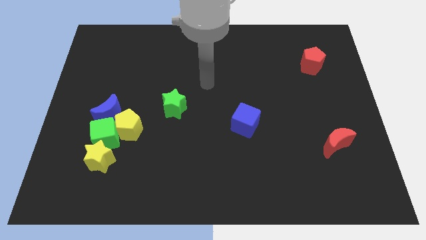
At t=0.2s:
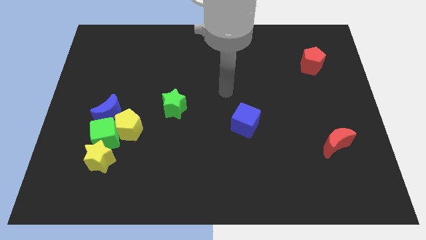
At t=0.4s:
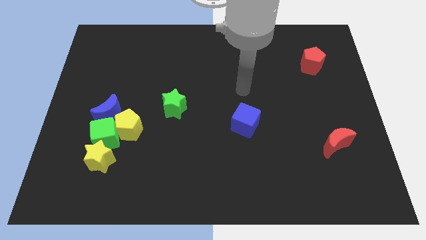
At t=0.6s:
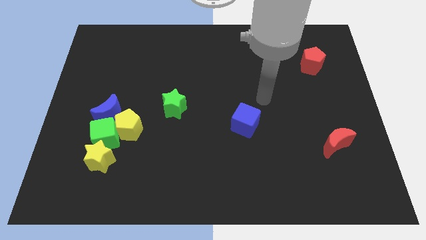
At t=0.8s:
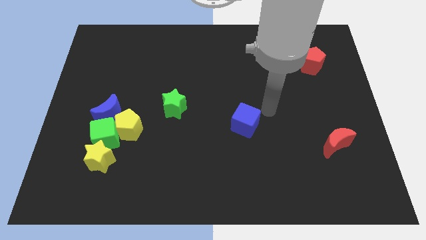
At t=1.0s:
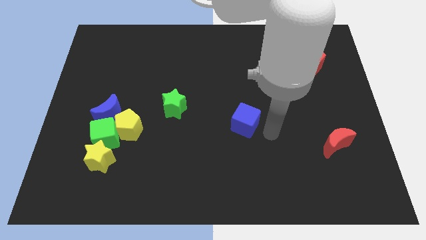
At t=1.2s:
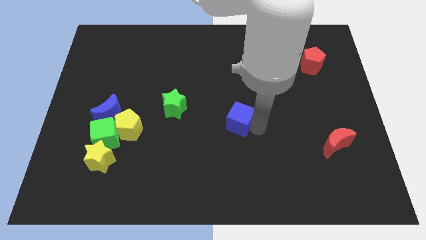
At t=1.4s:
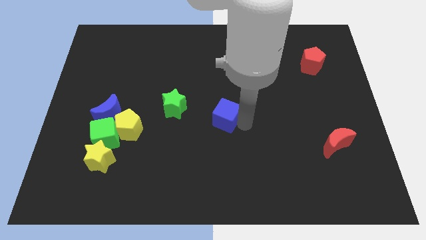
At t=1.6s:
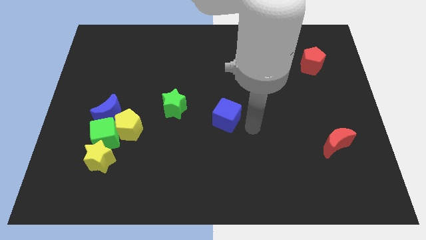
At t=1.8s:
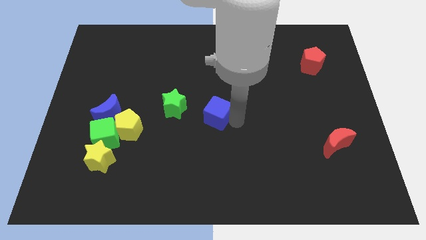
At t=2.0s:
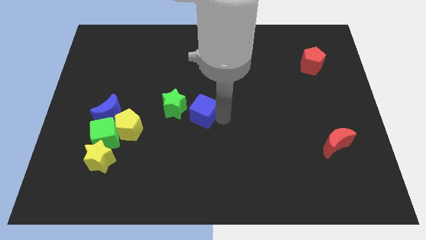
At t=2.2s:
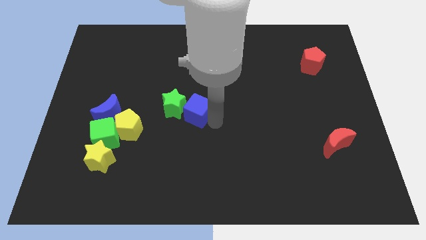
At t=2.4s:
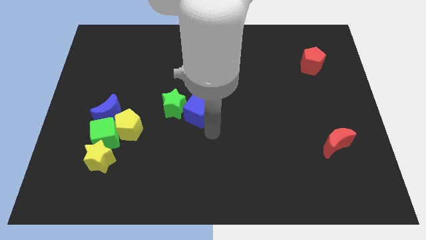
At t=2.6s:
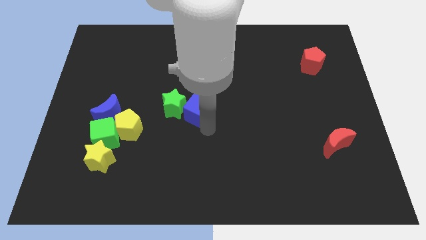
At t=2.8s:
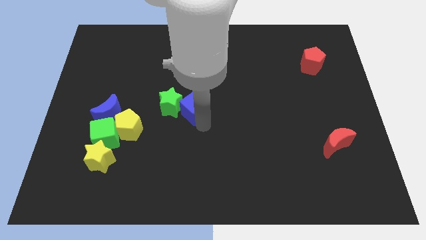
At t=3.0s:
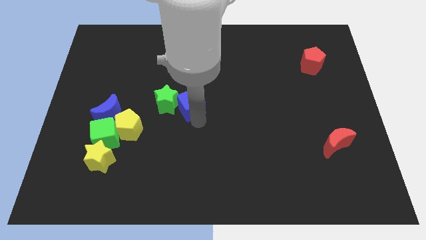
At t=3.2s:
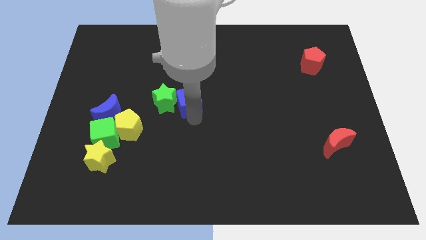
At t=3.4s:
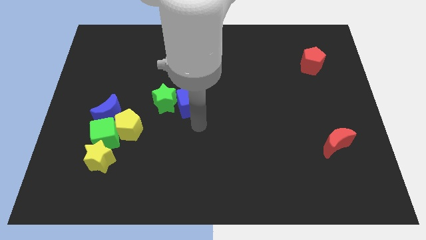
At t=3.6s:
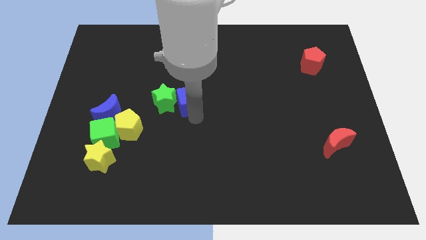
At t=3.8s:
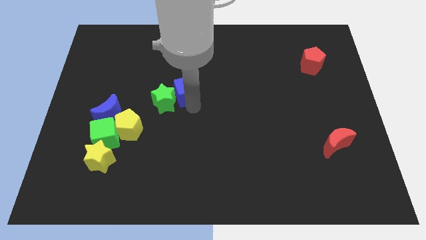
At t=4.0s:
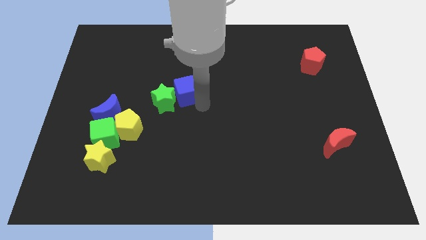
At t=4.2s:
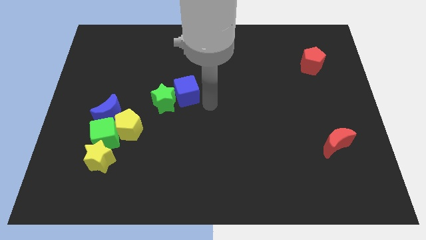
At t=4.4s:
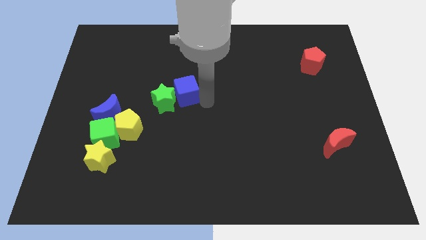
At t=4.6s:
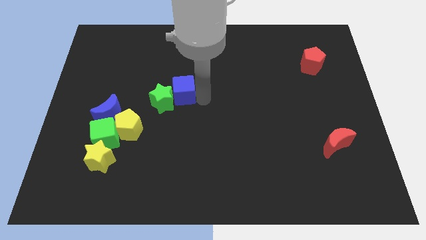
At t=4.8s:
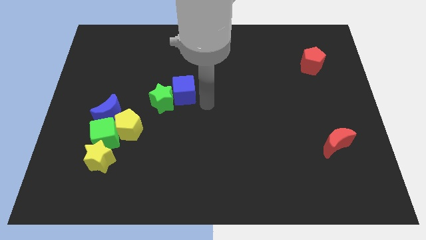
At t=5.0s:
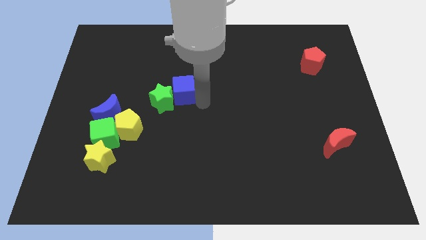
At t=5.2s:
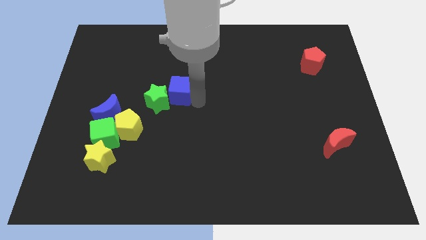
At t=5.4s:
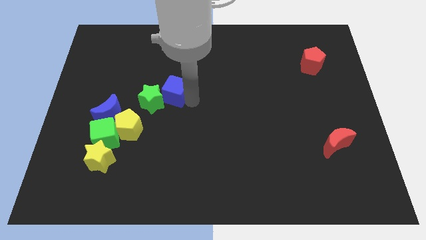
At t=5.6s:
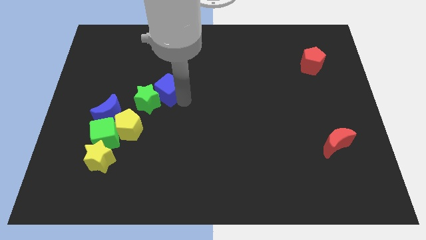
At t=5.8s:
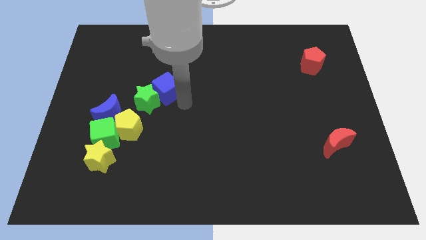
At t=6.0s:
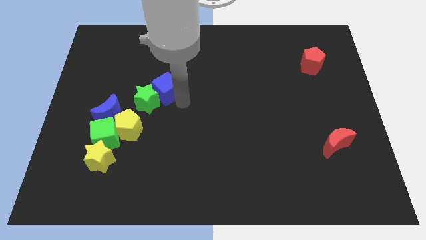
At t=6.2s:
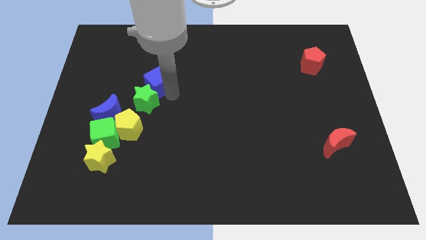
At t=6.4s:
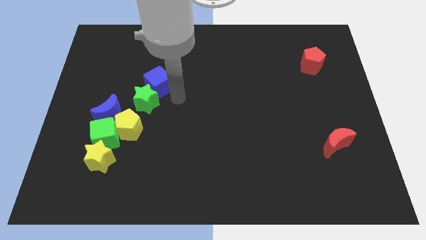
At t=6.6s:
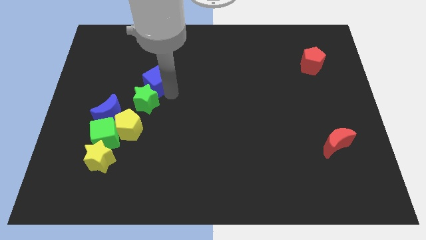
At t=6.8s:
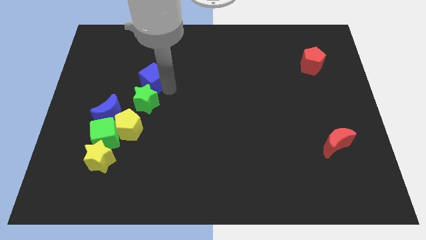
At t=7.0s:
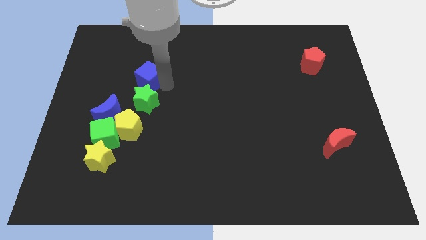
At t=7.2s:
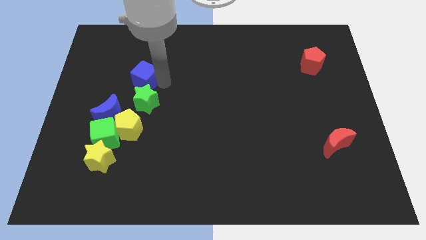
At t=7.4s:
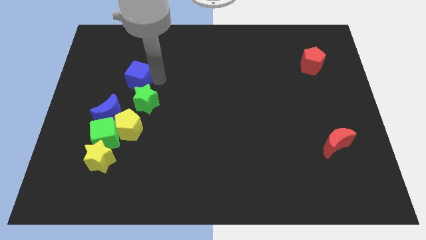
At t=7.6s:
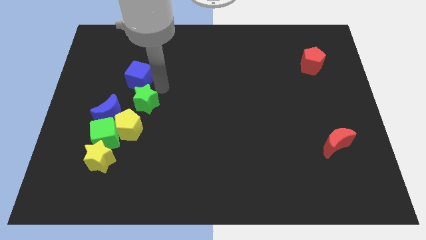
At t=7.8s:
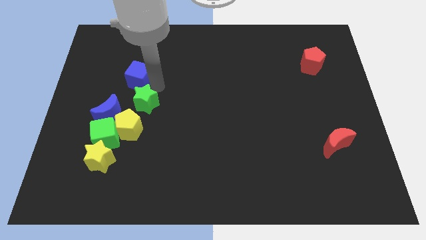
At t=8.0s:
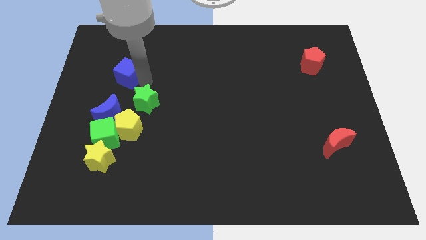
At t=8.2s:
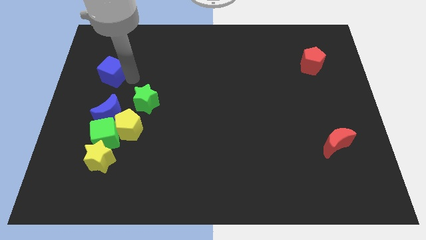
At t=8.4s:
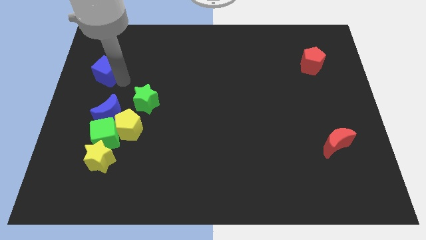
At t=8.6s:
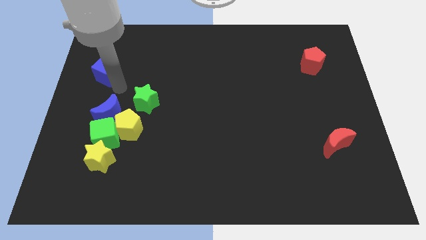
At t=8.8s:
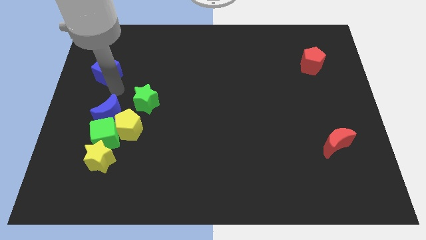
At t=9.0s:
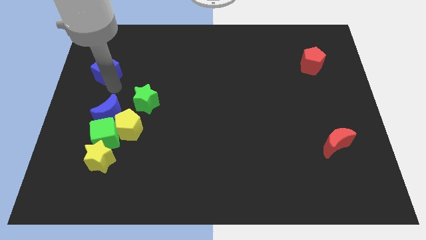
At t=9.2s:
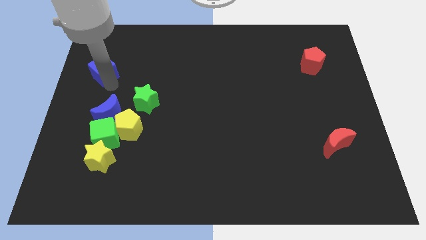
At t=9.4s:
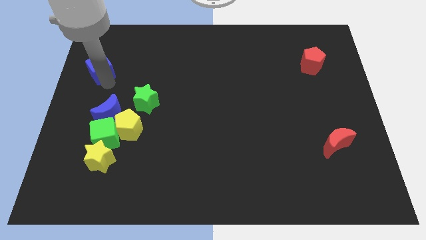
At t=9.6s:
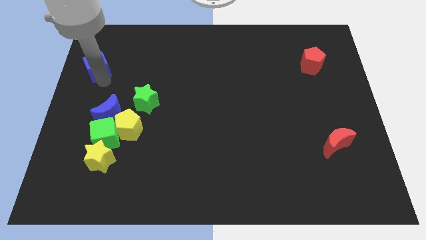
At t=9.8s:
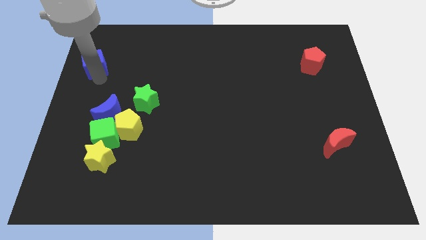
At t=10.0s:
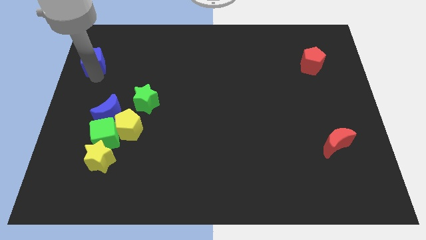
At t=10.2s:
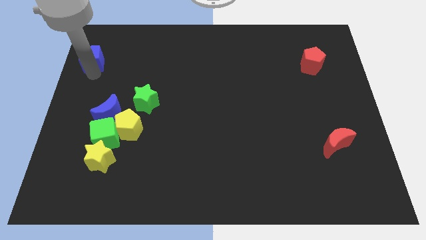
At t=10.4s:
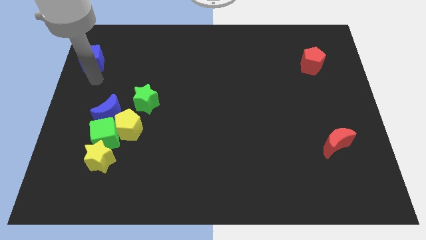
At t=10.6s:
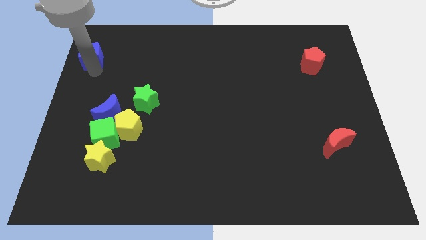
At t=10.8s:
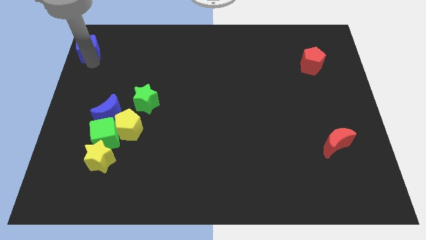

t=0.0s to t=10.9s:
put the blue cube to the top left

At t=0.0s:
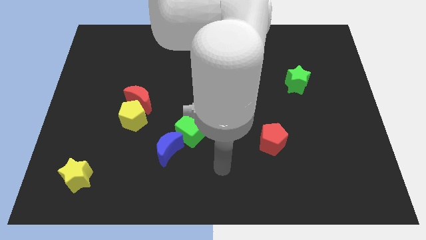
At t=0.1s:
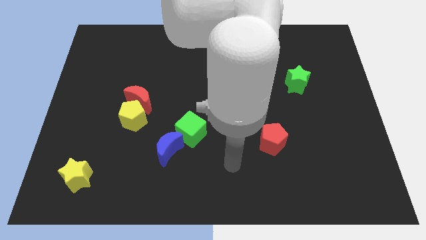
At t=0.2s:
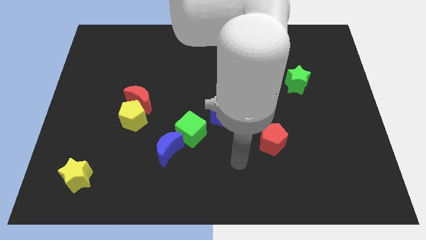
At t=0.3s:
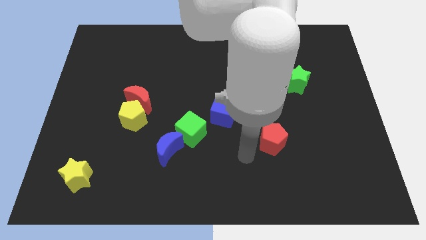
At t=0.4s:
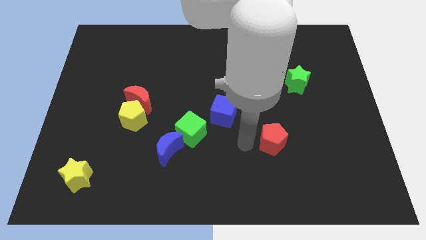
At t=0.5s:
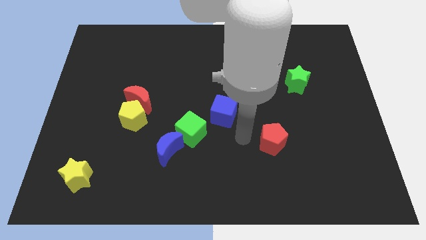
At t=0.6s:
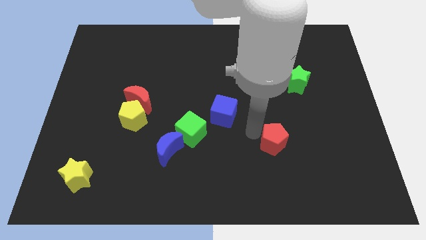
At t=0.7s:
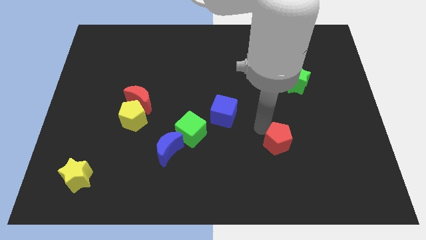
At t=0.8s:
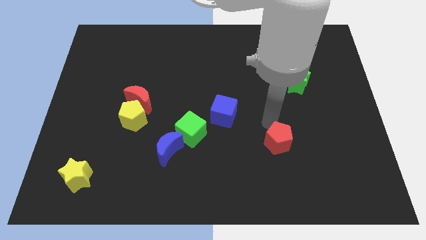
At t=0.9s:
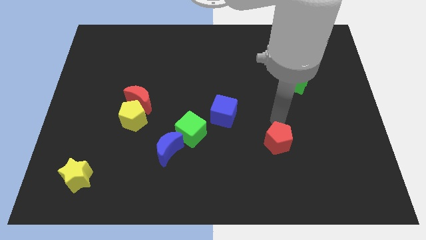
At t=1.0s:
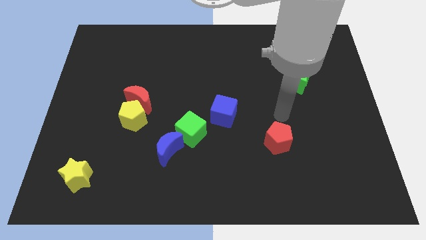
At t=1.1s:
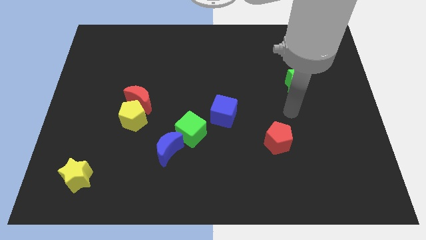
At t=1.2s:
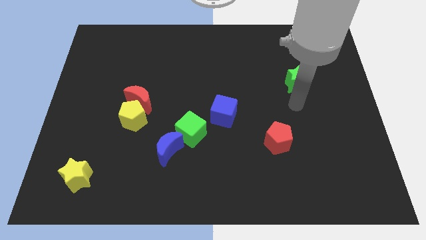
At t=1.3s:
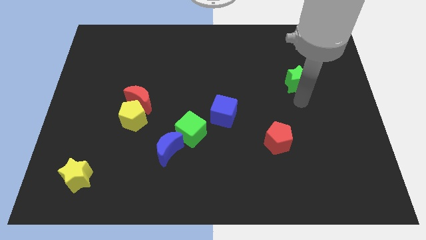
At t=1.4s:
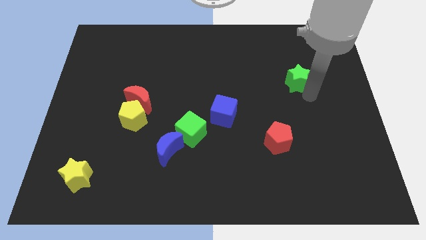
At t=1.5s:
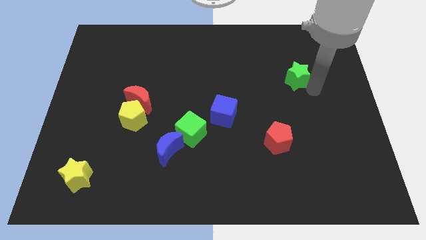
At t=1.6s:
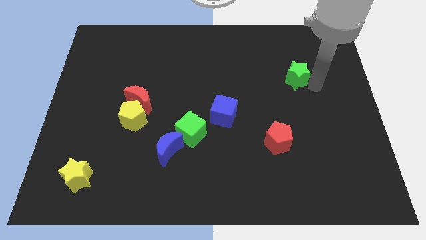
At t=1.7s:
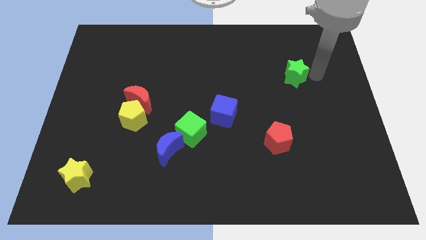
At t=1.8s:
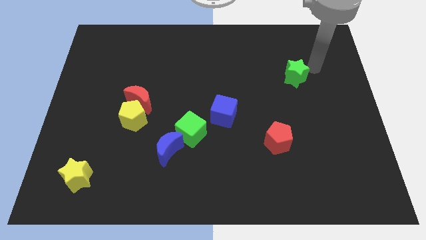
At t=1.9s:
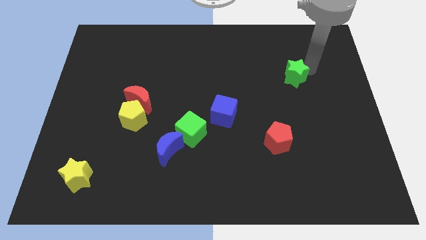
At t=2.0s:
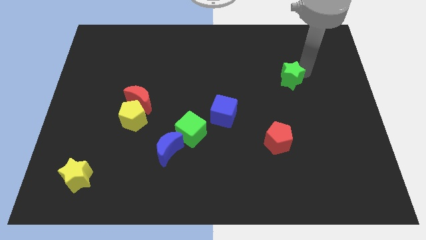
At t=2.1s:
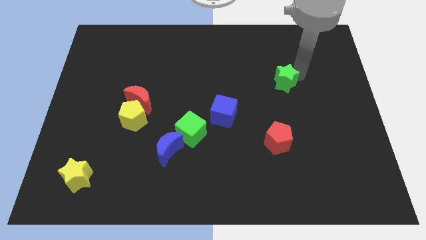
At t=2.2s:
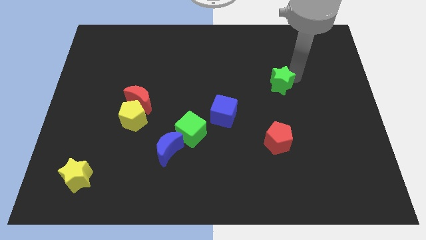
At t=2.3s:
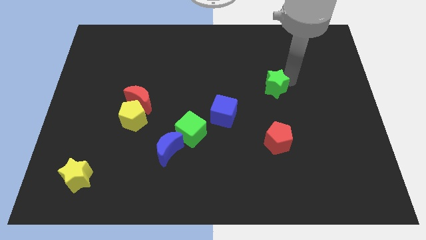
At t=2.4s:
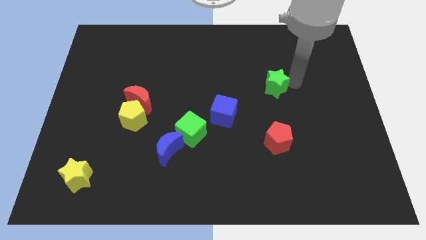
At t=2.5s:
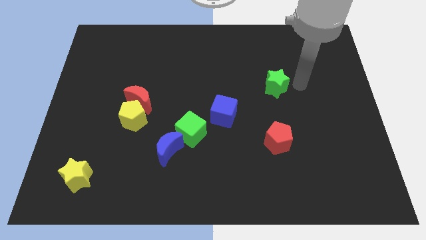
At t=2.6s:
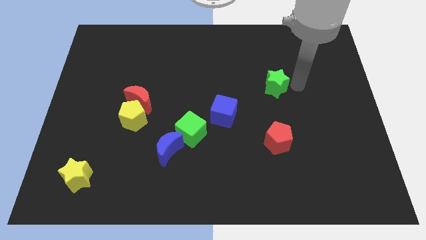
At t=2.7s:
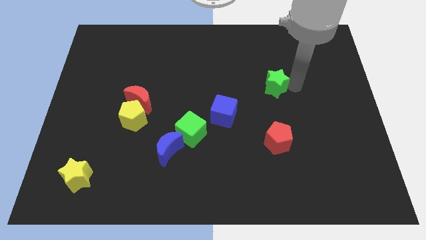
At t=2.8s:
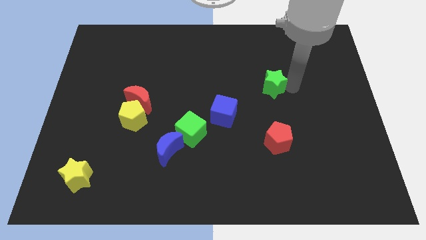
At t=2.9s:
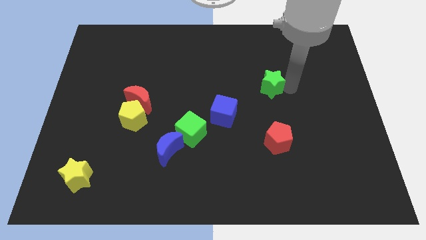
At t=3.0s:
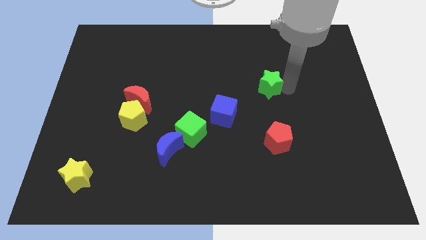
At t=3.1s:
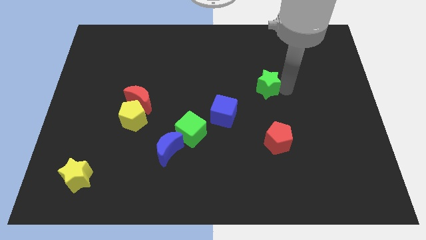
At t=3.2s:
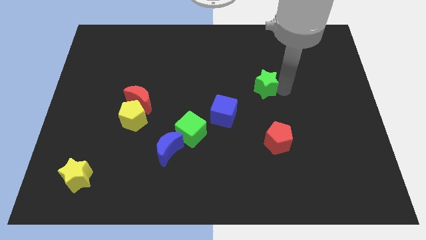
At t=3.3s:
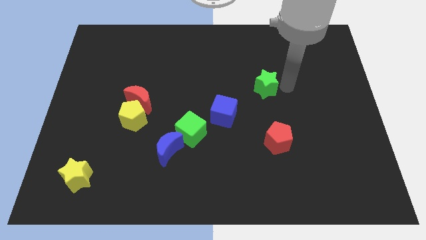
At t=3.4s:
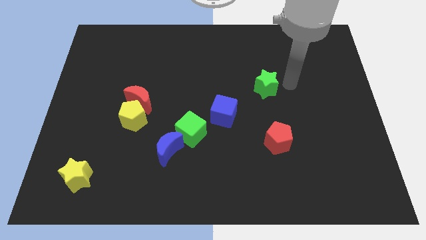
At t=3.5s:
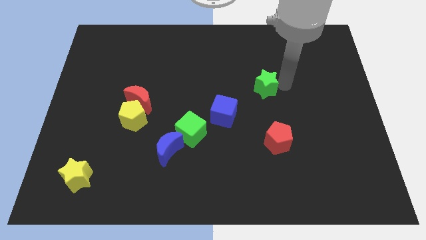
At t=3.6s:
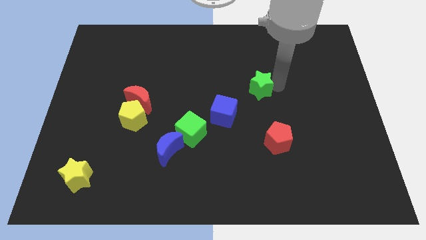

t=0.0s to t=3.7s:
move the green star to the middle
